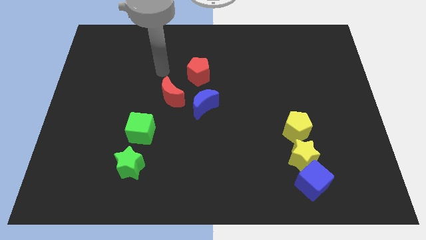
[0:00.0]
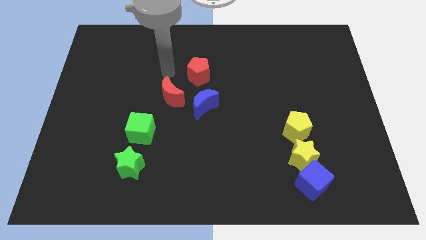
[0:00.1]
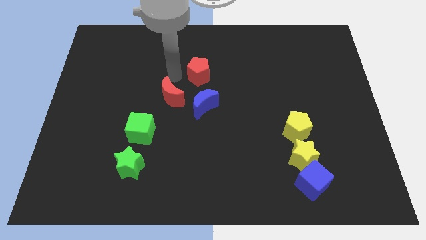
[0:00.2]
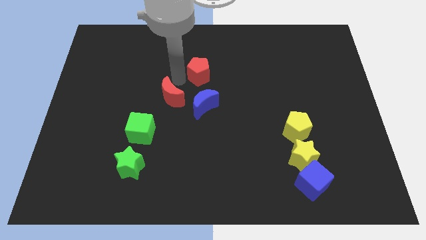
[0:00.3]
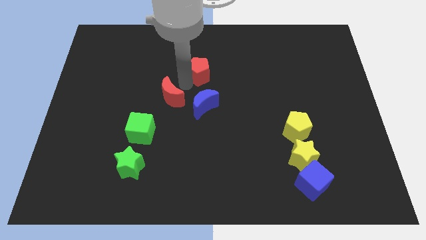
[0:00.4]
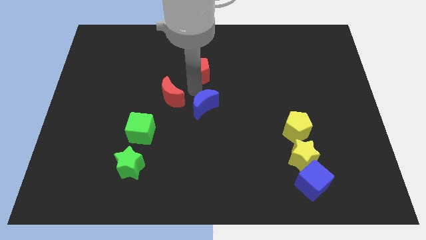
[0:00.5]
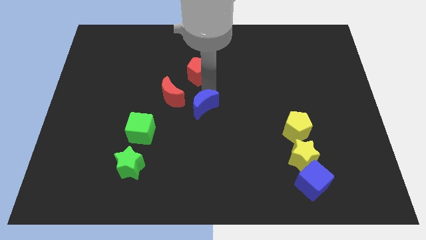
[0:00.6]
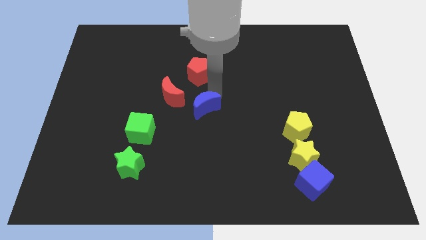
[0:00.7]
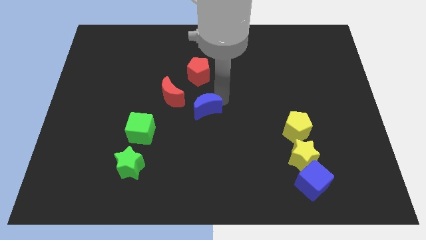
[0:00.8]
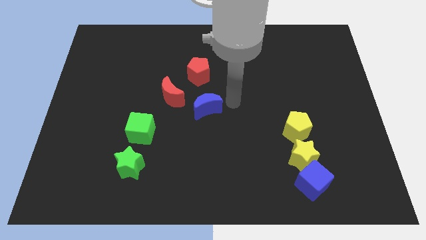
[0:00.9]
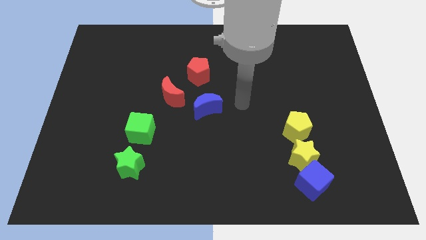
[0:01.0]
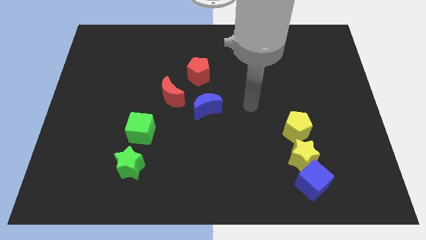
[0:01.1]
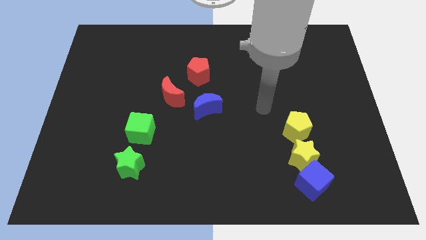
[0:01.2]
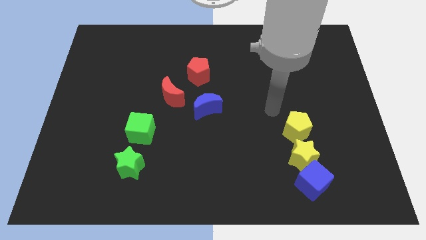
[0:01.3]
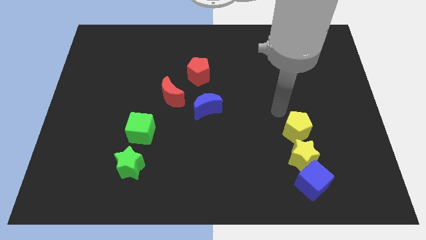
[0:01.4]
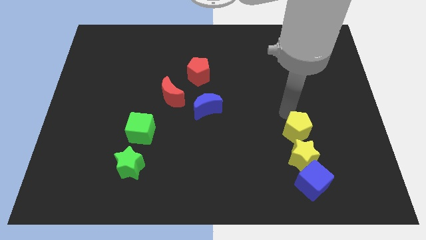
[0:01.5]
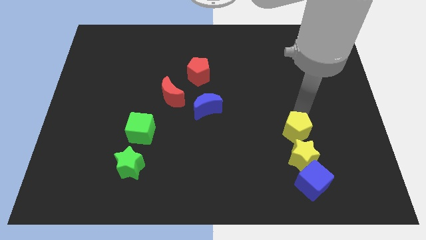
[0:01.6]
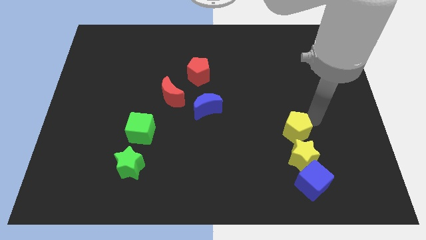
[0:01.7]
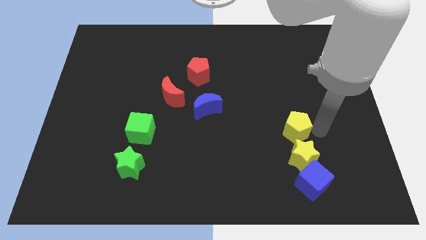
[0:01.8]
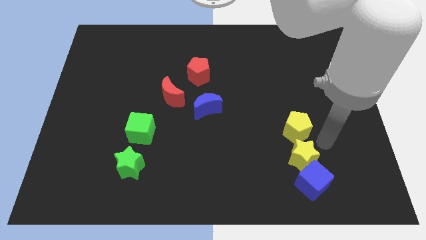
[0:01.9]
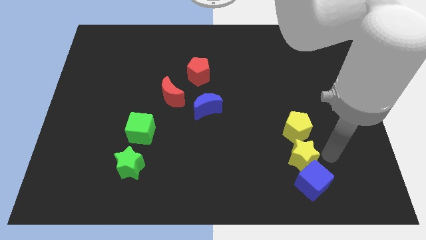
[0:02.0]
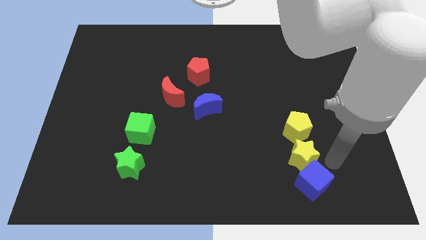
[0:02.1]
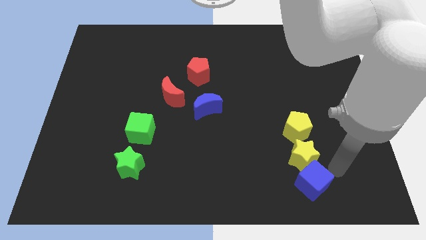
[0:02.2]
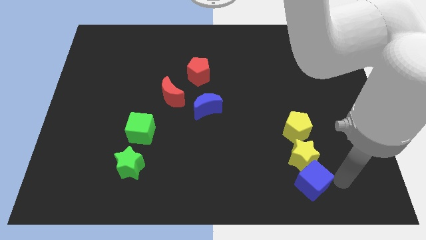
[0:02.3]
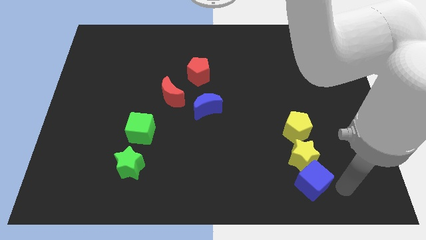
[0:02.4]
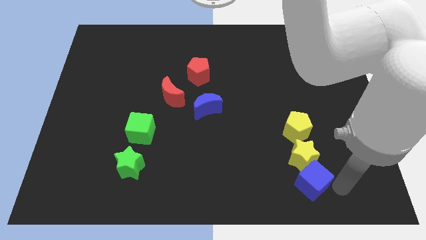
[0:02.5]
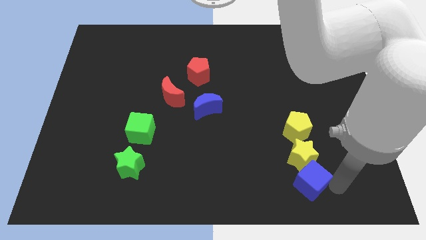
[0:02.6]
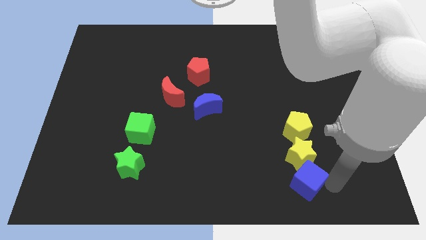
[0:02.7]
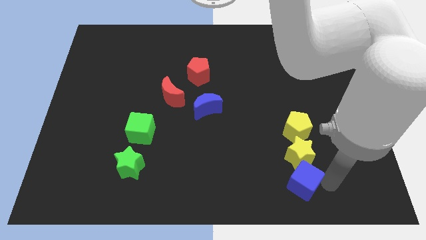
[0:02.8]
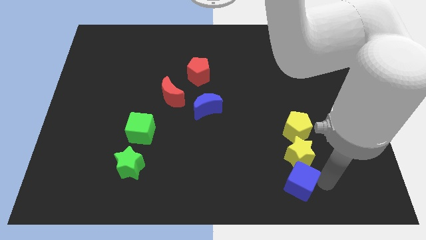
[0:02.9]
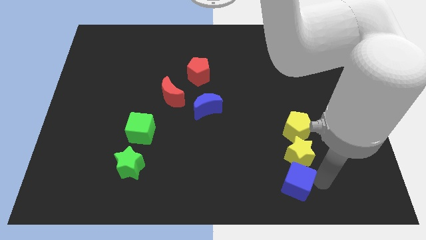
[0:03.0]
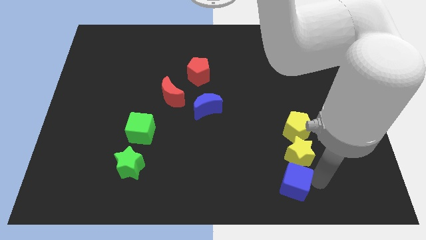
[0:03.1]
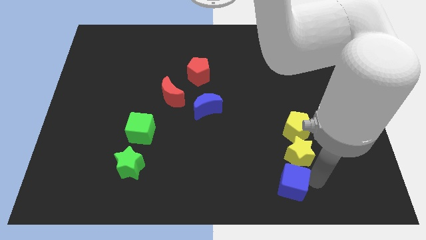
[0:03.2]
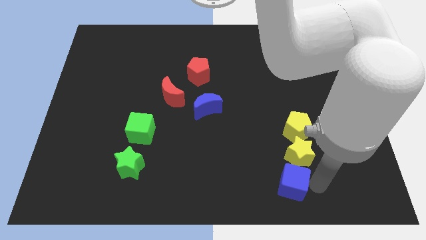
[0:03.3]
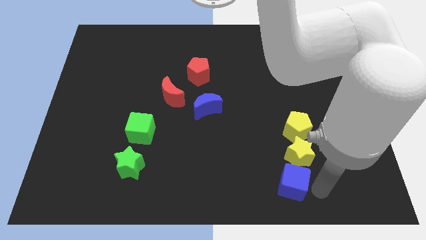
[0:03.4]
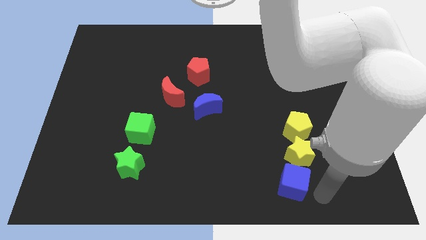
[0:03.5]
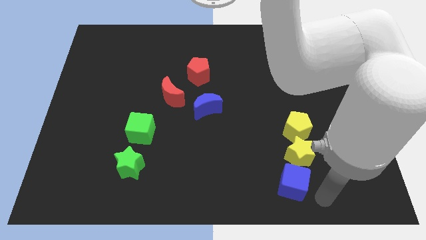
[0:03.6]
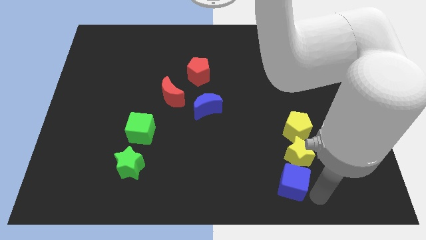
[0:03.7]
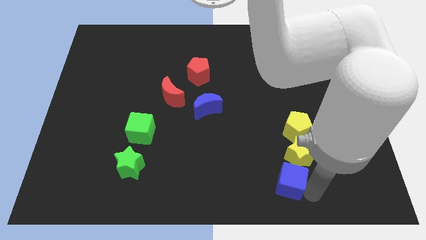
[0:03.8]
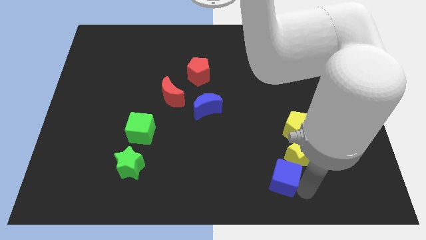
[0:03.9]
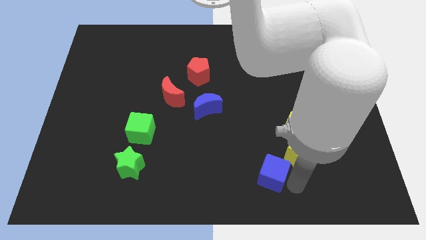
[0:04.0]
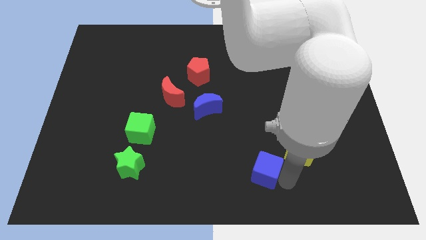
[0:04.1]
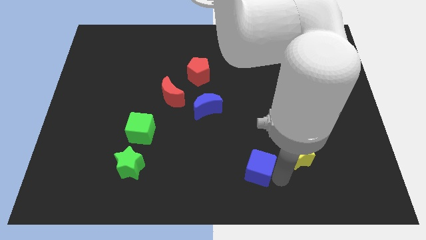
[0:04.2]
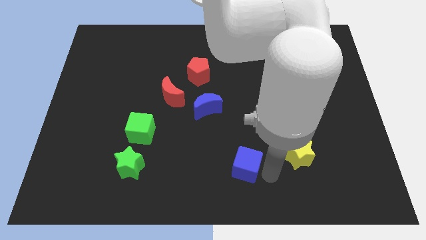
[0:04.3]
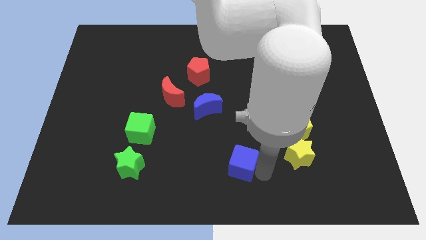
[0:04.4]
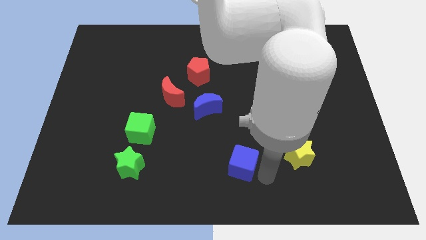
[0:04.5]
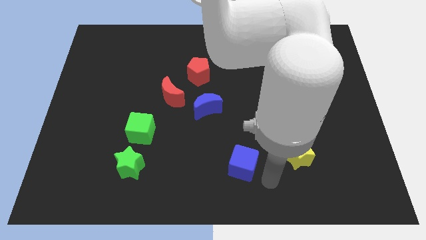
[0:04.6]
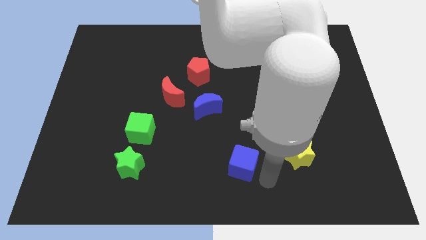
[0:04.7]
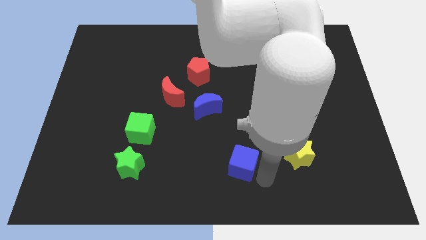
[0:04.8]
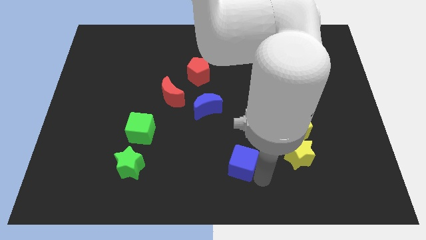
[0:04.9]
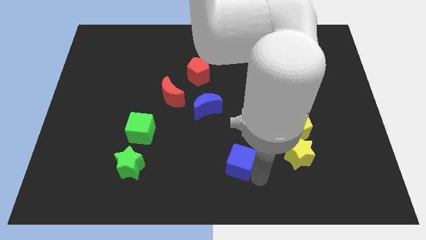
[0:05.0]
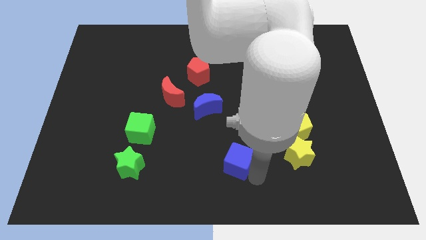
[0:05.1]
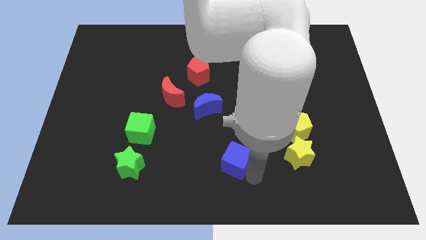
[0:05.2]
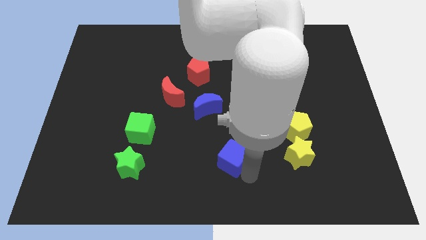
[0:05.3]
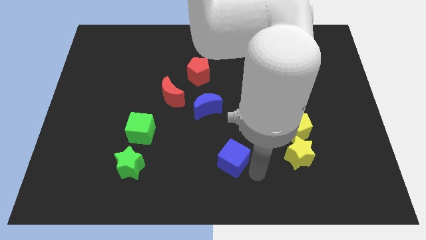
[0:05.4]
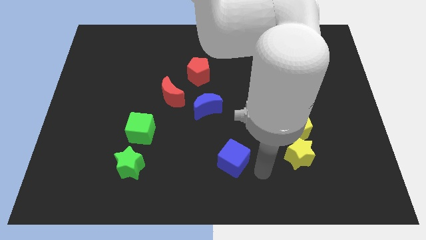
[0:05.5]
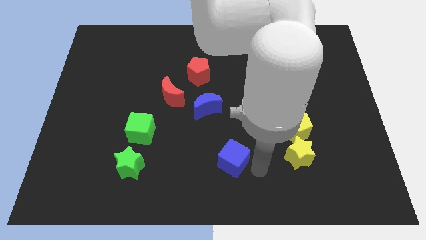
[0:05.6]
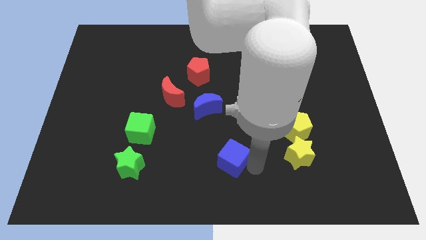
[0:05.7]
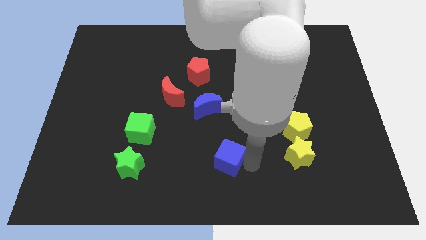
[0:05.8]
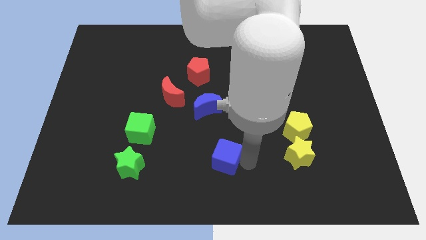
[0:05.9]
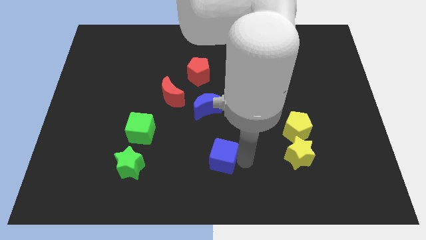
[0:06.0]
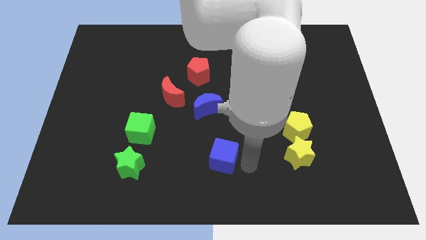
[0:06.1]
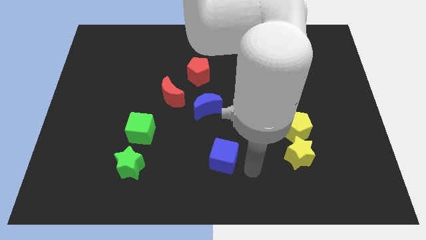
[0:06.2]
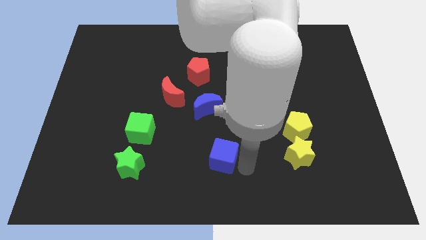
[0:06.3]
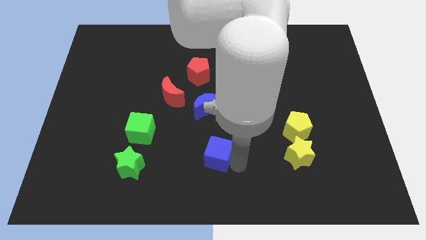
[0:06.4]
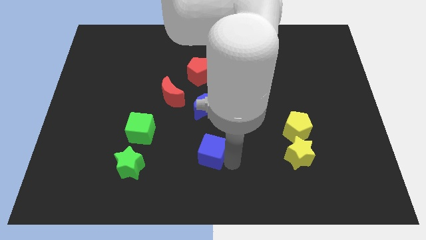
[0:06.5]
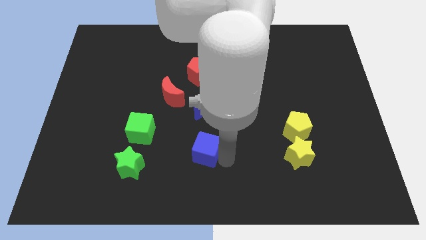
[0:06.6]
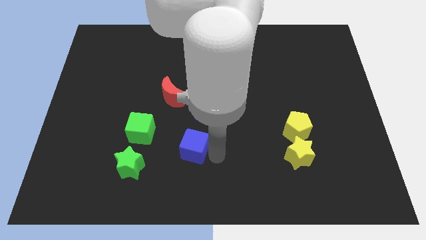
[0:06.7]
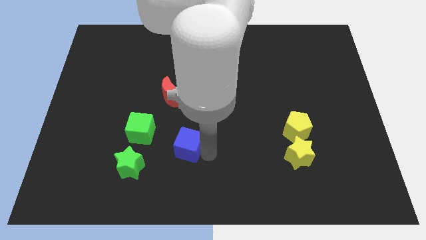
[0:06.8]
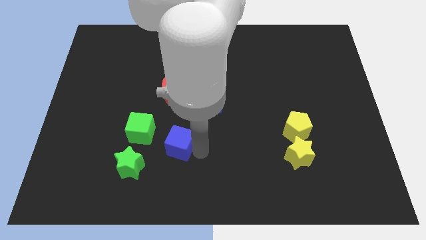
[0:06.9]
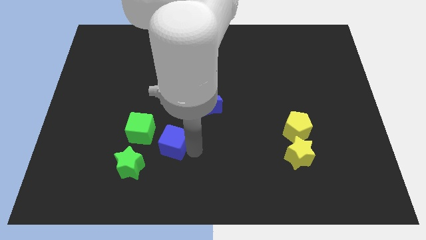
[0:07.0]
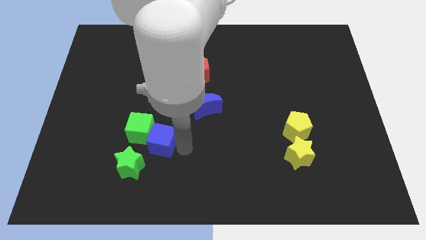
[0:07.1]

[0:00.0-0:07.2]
slide the blue cube close to the green cube
